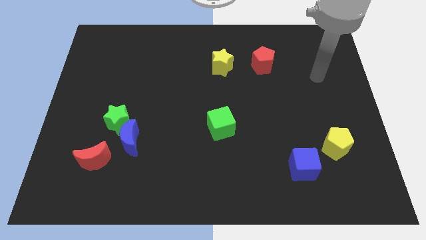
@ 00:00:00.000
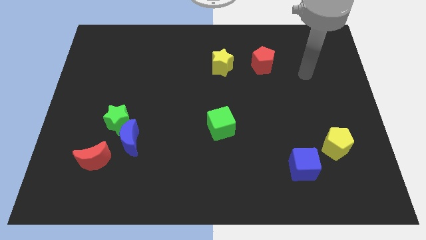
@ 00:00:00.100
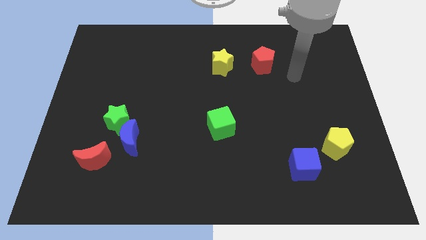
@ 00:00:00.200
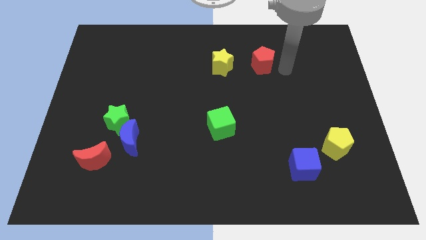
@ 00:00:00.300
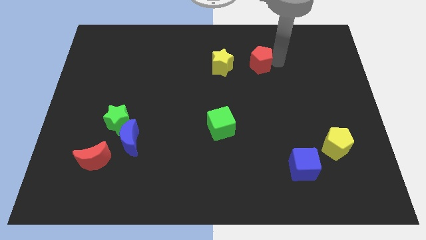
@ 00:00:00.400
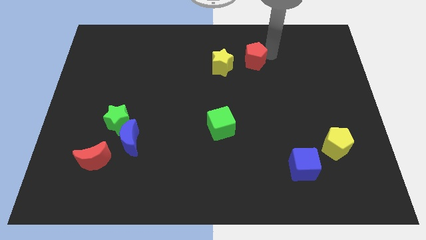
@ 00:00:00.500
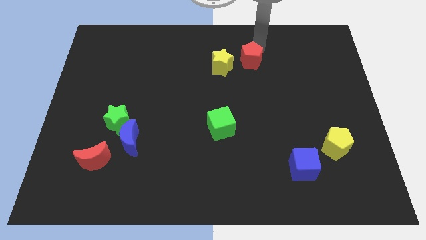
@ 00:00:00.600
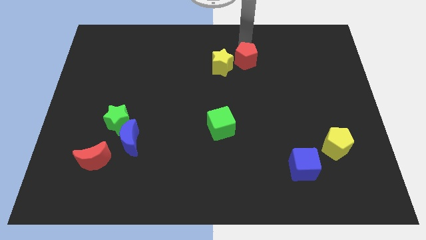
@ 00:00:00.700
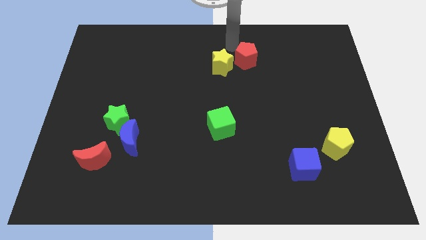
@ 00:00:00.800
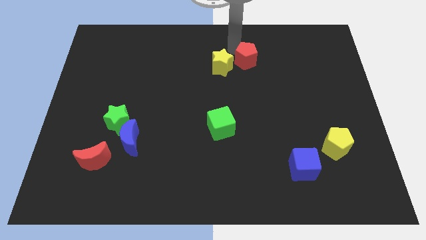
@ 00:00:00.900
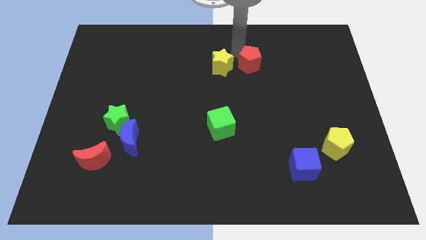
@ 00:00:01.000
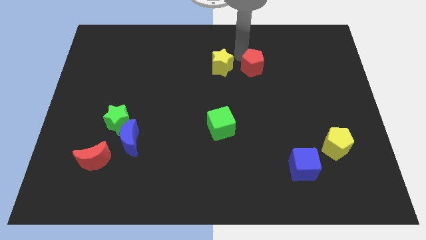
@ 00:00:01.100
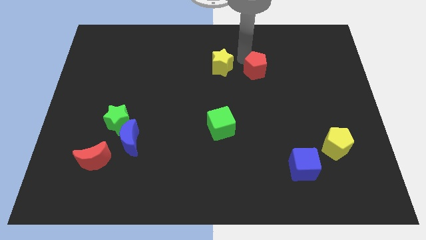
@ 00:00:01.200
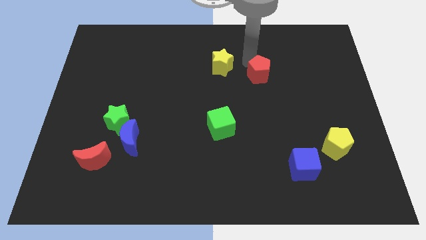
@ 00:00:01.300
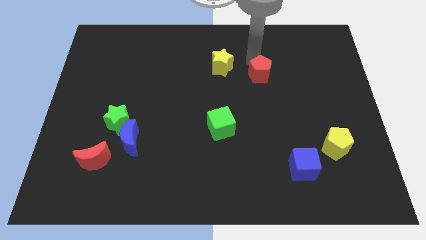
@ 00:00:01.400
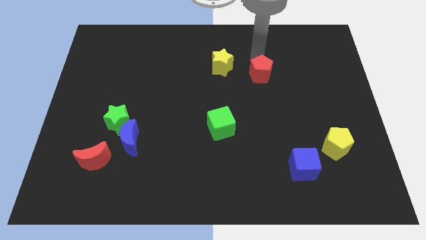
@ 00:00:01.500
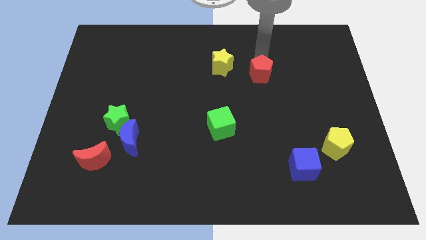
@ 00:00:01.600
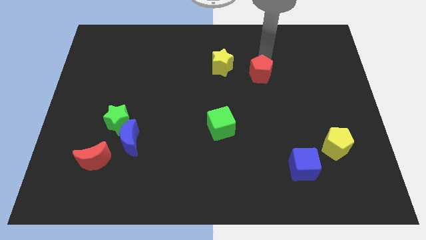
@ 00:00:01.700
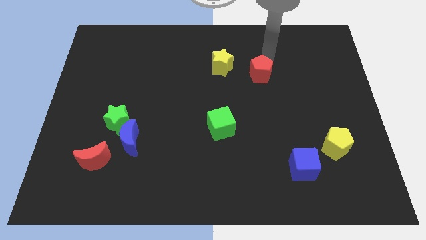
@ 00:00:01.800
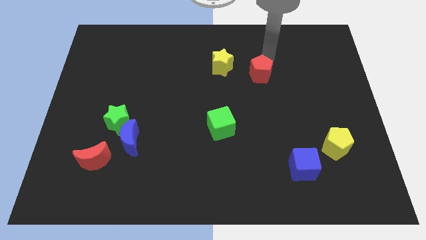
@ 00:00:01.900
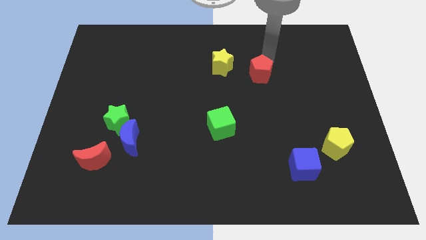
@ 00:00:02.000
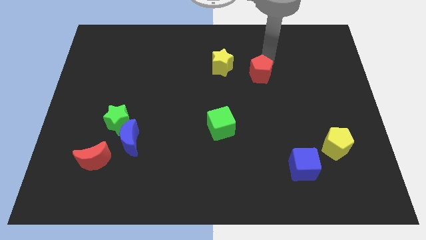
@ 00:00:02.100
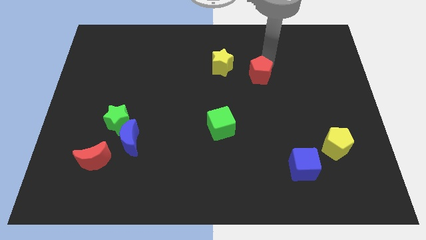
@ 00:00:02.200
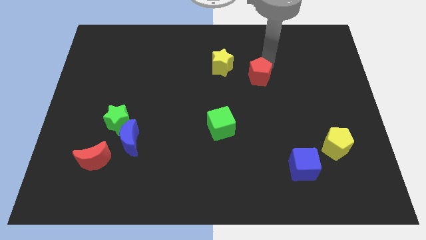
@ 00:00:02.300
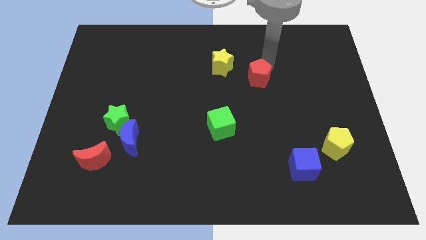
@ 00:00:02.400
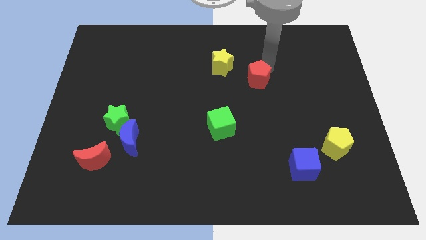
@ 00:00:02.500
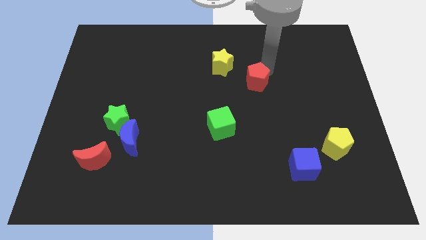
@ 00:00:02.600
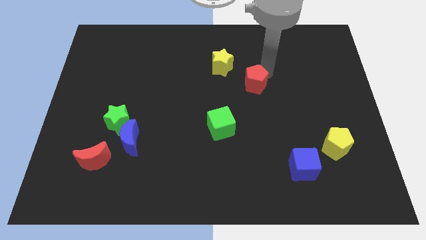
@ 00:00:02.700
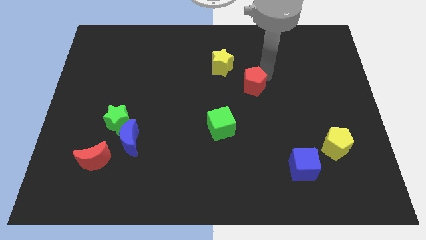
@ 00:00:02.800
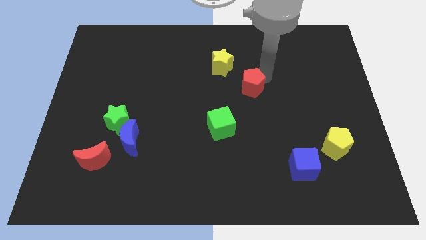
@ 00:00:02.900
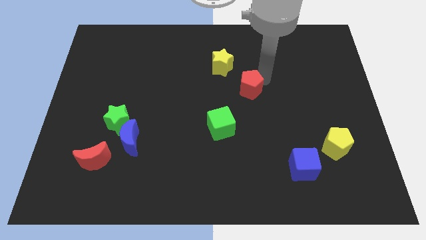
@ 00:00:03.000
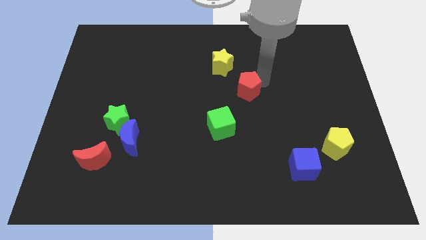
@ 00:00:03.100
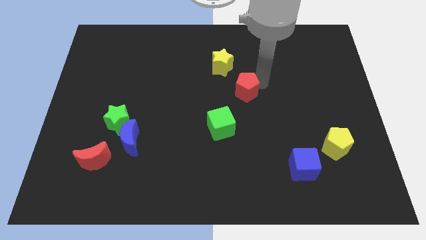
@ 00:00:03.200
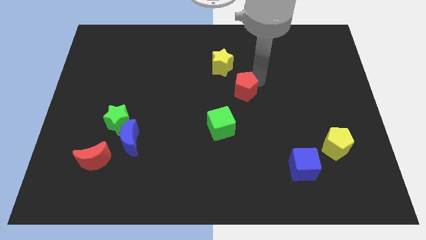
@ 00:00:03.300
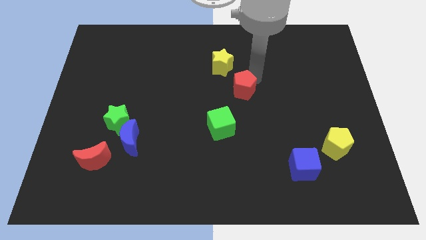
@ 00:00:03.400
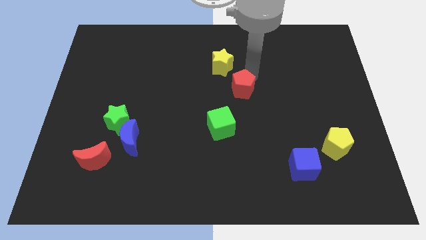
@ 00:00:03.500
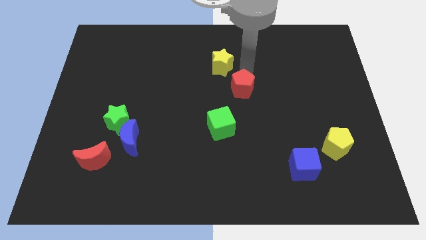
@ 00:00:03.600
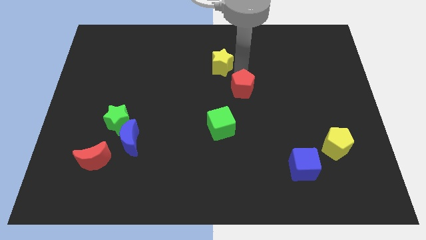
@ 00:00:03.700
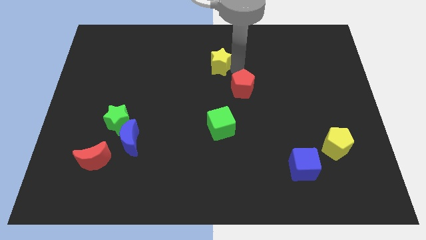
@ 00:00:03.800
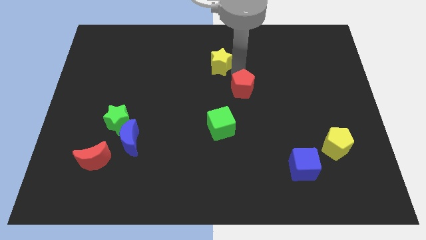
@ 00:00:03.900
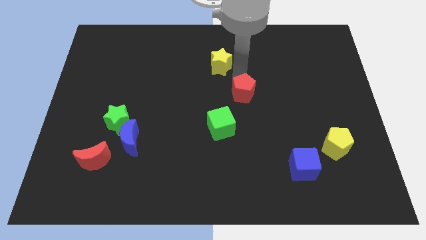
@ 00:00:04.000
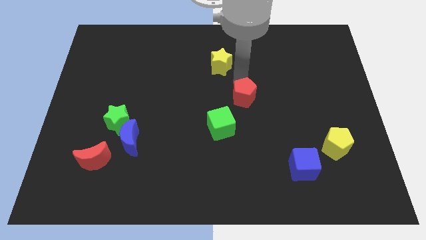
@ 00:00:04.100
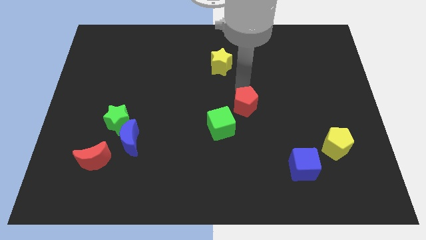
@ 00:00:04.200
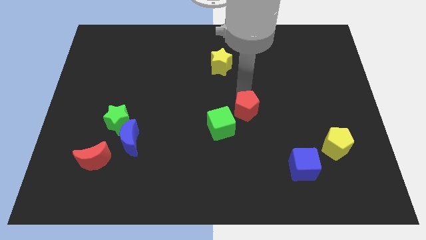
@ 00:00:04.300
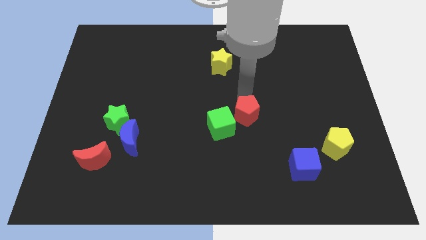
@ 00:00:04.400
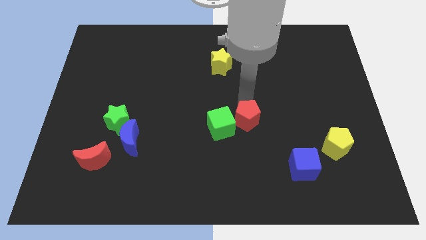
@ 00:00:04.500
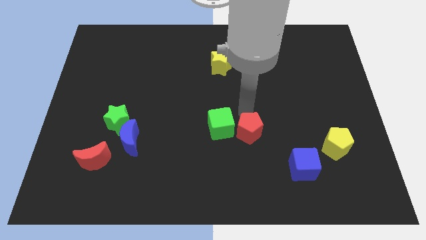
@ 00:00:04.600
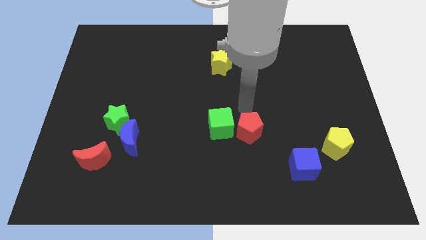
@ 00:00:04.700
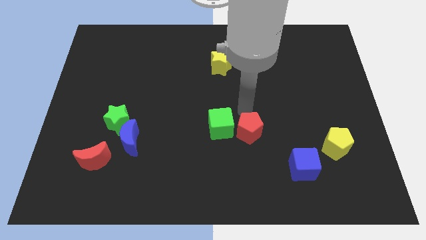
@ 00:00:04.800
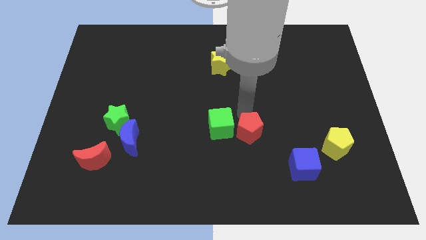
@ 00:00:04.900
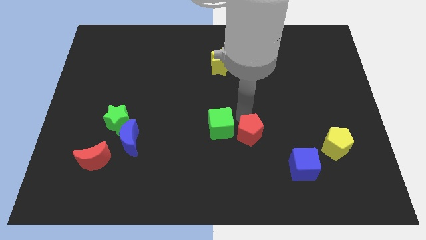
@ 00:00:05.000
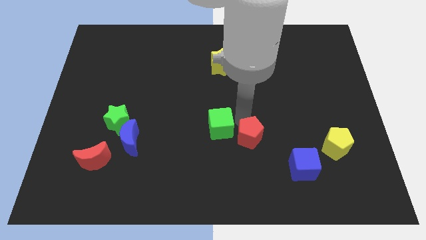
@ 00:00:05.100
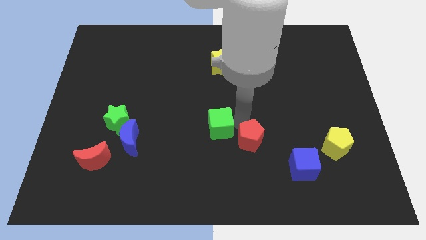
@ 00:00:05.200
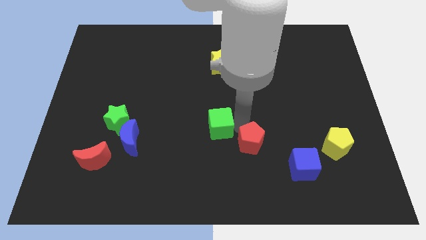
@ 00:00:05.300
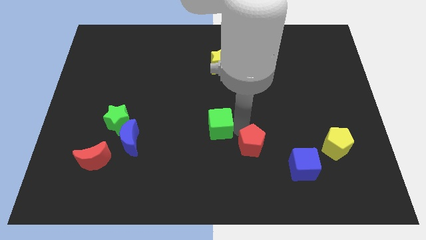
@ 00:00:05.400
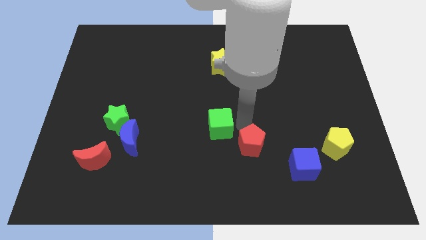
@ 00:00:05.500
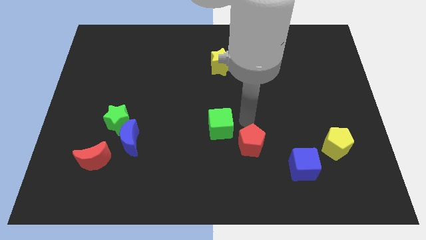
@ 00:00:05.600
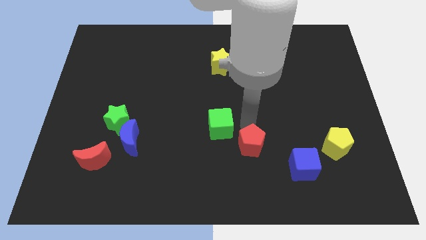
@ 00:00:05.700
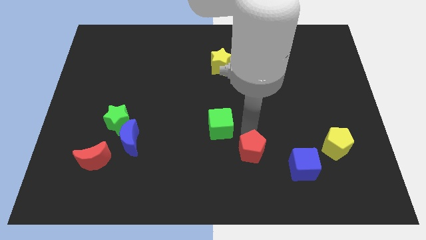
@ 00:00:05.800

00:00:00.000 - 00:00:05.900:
slide the red pentagon to the left of the blue cube

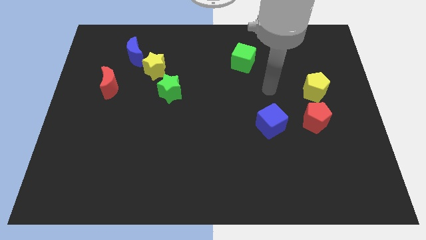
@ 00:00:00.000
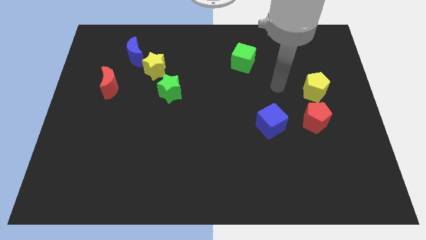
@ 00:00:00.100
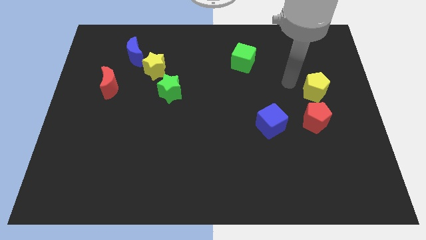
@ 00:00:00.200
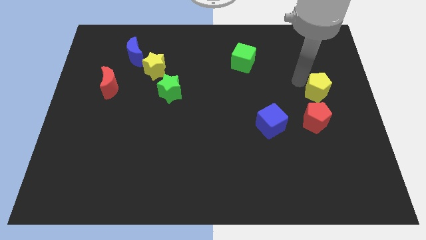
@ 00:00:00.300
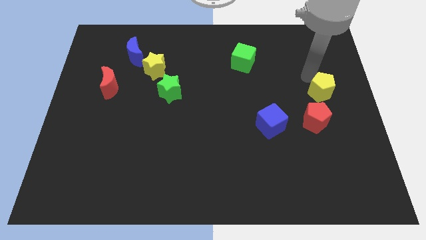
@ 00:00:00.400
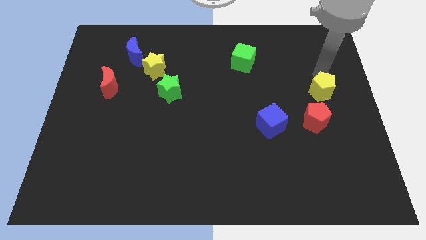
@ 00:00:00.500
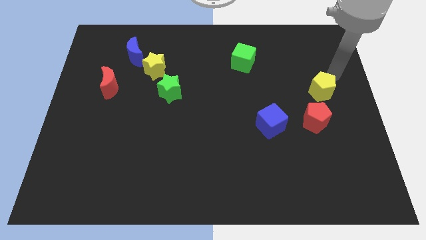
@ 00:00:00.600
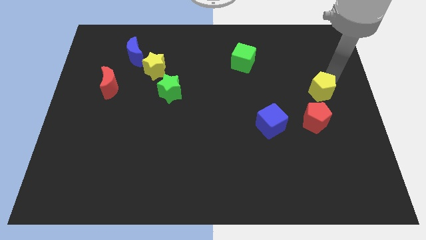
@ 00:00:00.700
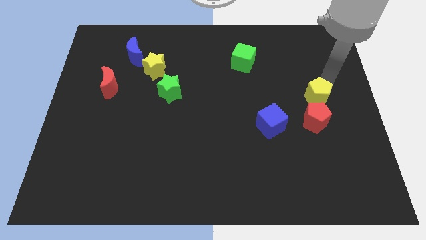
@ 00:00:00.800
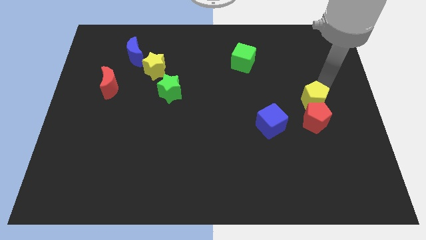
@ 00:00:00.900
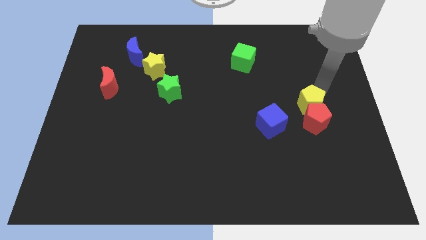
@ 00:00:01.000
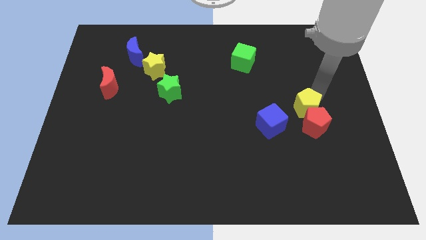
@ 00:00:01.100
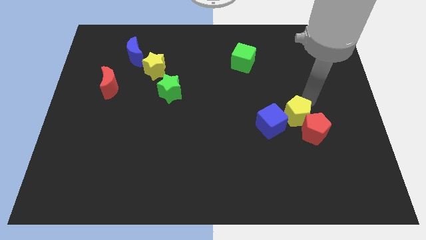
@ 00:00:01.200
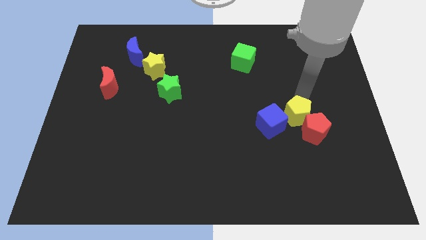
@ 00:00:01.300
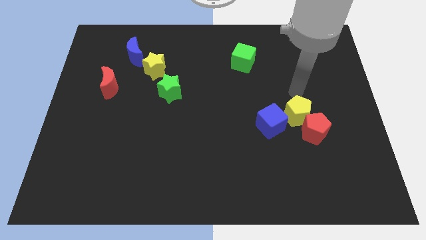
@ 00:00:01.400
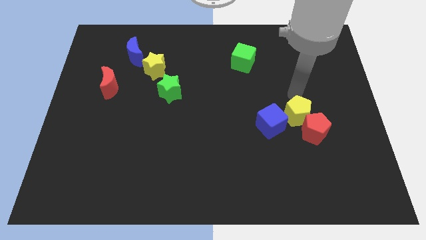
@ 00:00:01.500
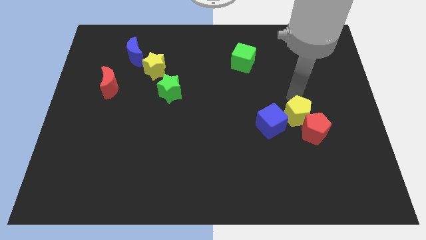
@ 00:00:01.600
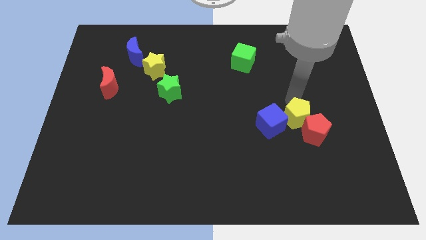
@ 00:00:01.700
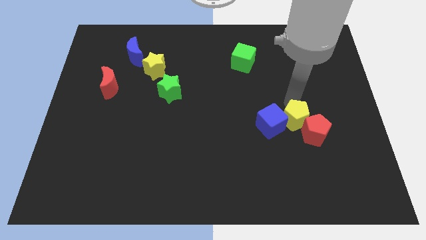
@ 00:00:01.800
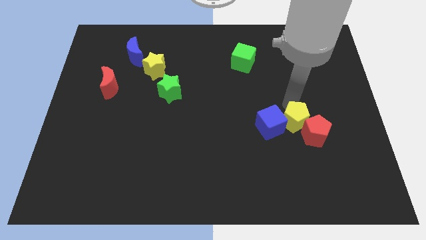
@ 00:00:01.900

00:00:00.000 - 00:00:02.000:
move the yellow pentagon to the bottom right of the blue cube
